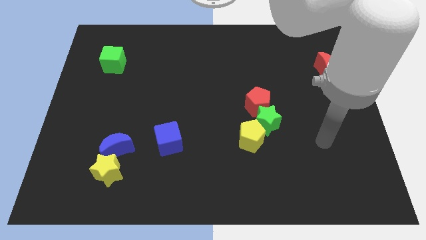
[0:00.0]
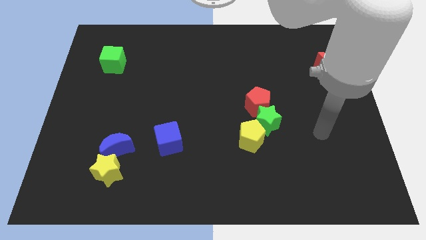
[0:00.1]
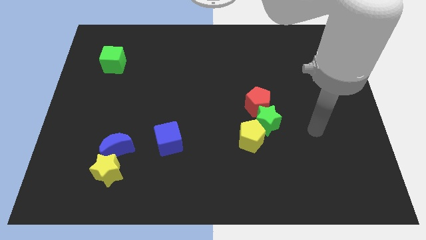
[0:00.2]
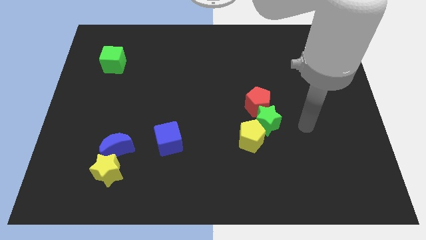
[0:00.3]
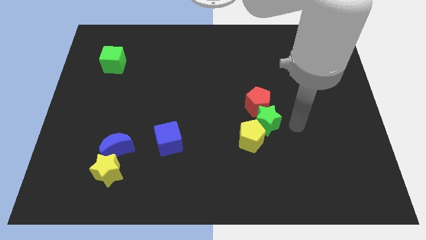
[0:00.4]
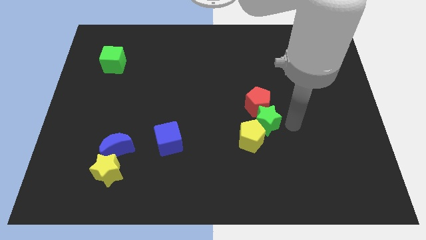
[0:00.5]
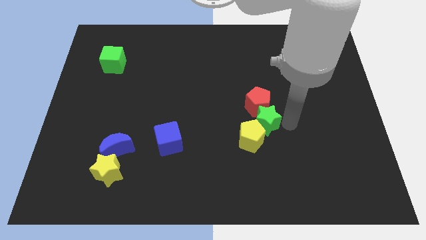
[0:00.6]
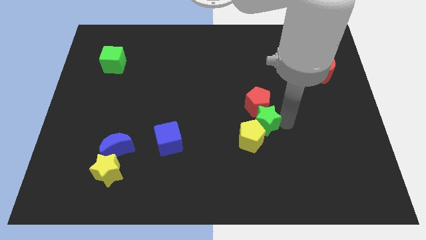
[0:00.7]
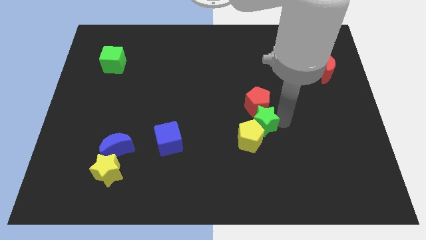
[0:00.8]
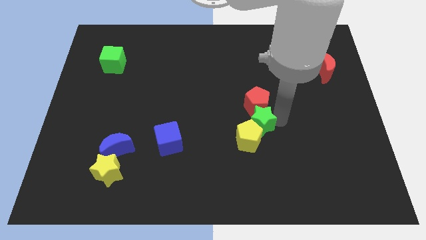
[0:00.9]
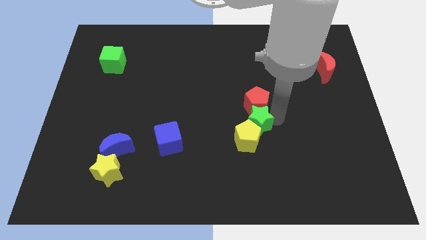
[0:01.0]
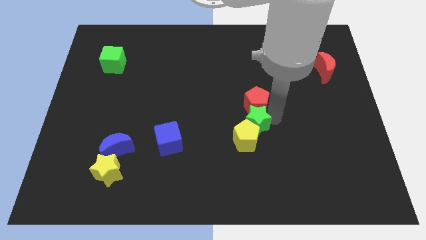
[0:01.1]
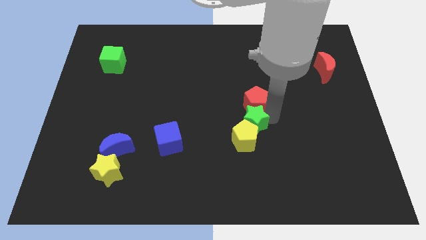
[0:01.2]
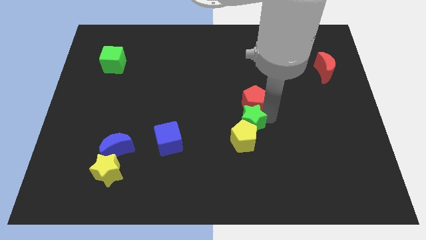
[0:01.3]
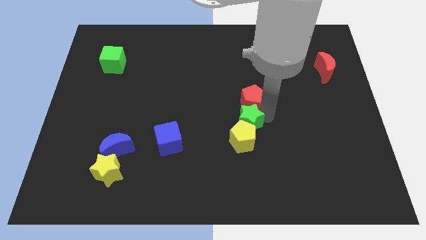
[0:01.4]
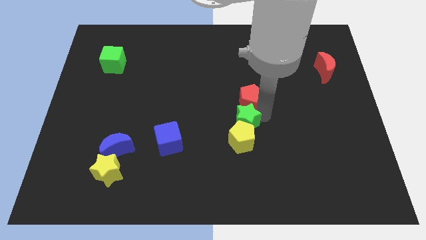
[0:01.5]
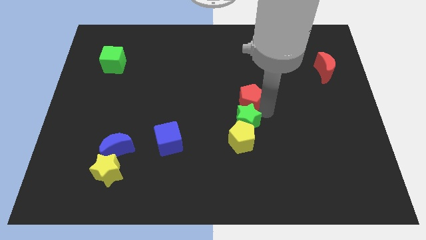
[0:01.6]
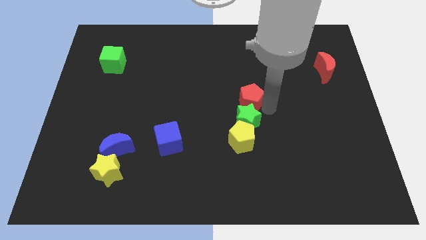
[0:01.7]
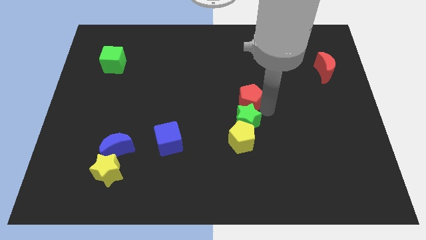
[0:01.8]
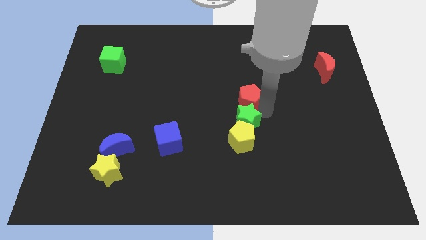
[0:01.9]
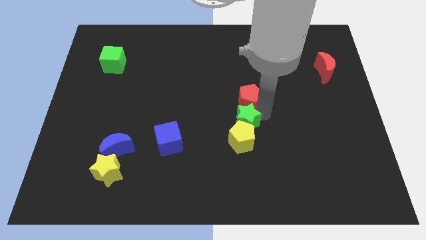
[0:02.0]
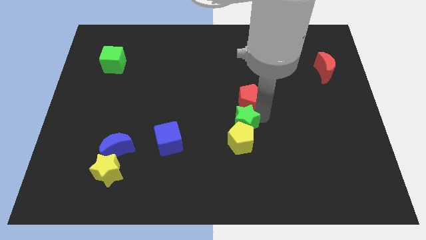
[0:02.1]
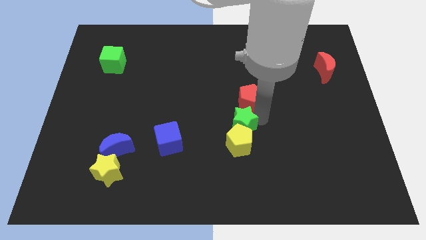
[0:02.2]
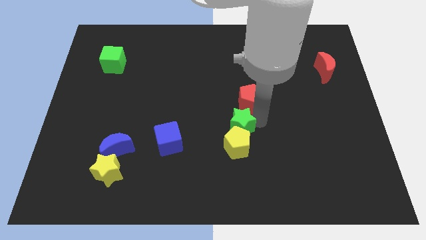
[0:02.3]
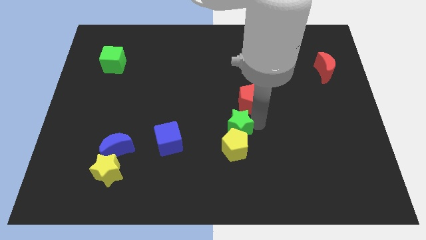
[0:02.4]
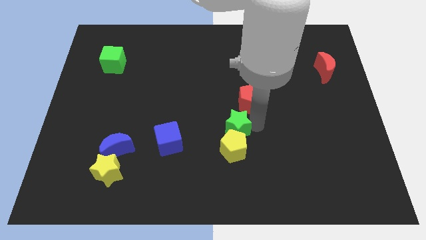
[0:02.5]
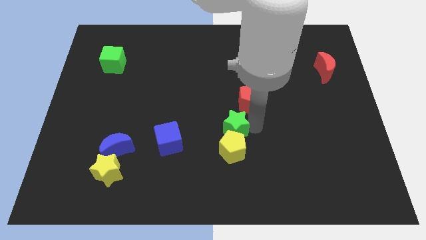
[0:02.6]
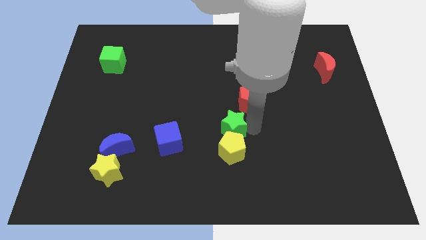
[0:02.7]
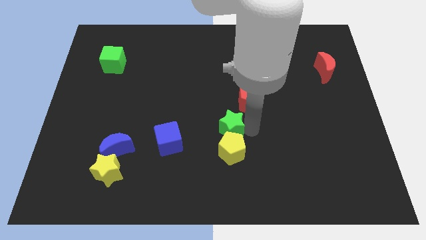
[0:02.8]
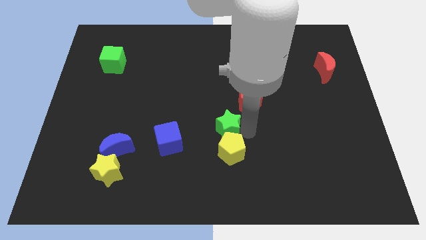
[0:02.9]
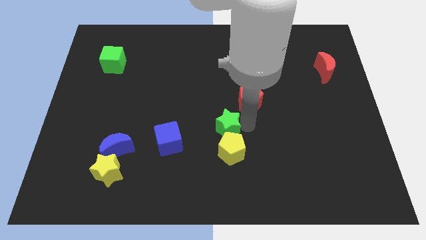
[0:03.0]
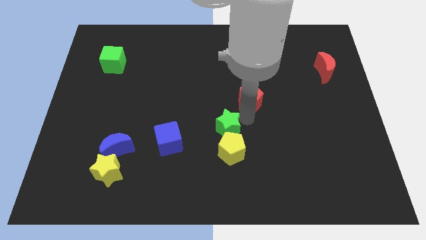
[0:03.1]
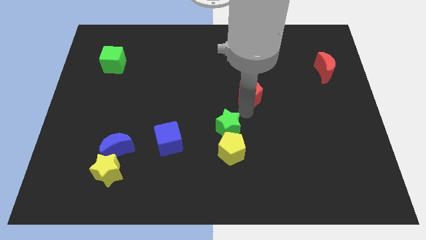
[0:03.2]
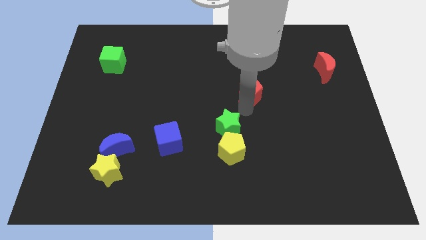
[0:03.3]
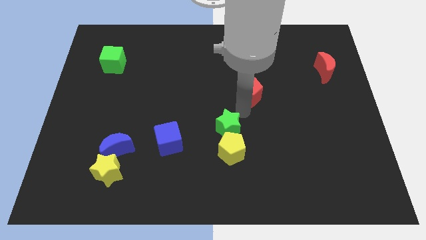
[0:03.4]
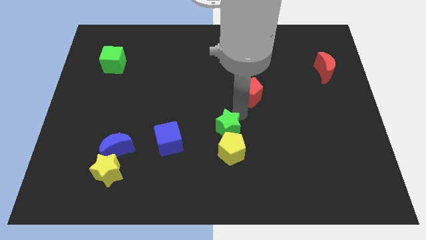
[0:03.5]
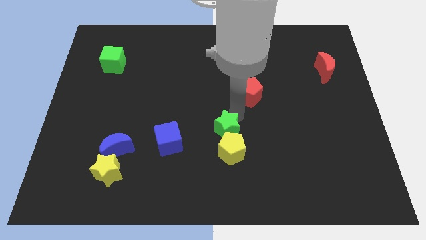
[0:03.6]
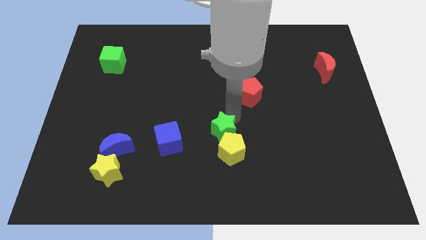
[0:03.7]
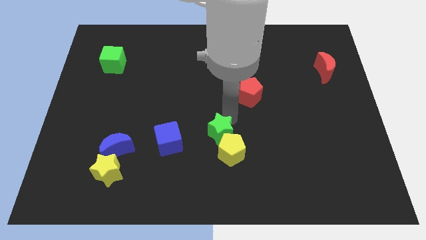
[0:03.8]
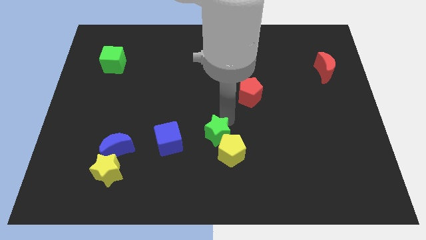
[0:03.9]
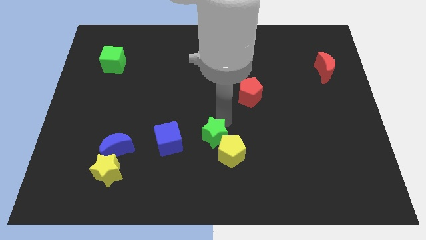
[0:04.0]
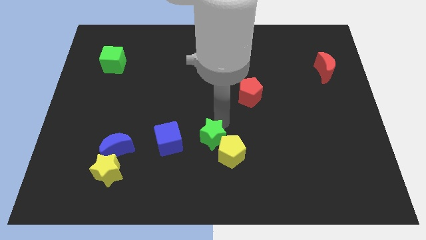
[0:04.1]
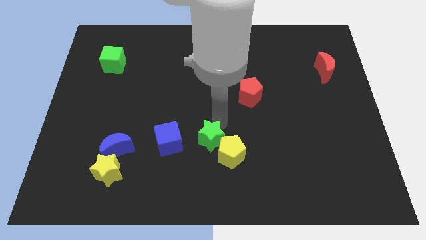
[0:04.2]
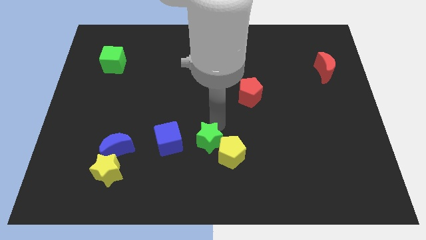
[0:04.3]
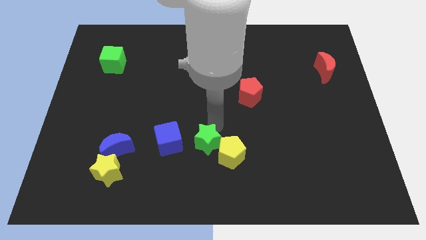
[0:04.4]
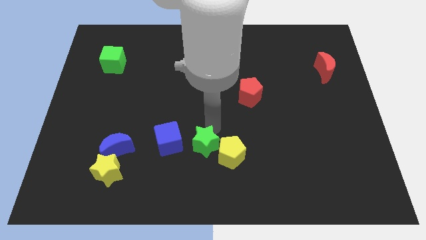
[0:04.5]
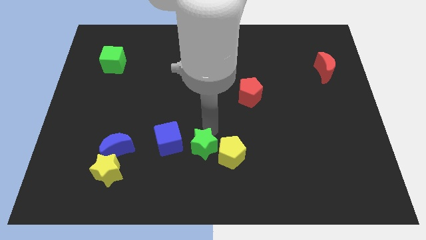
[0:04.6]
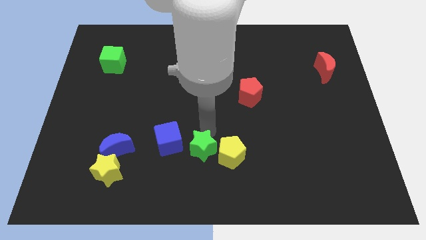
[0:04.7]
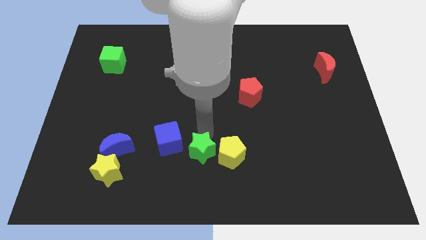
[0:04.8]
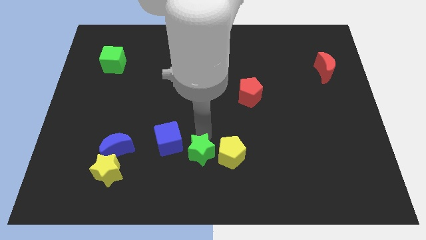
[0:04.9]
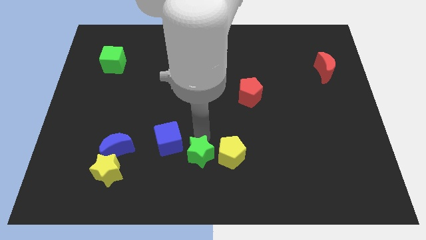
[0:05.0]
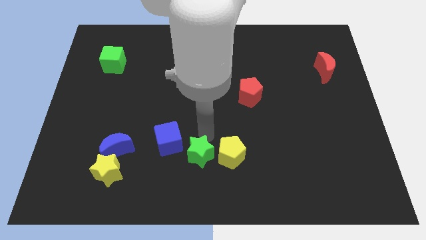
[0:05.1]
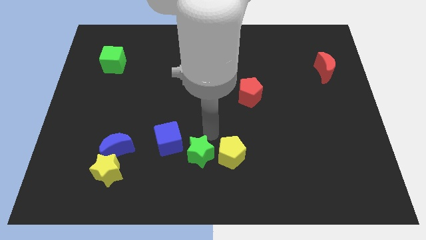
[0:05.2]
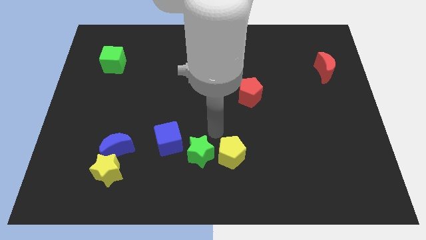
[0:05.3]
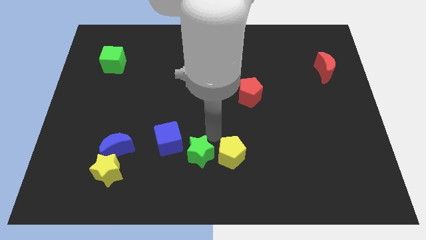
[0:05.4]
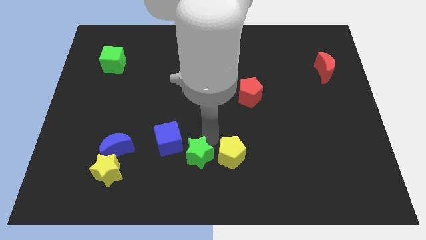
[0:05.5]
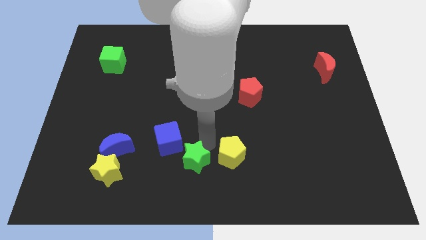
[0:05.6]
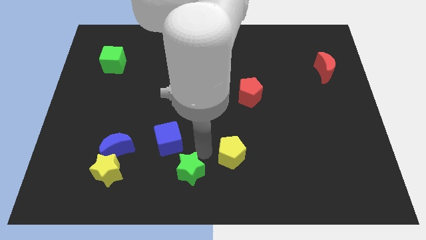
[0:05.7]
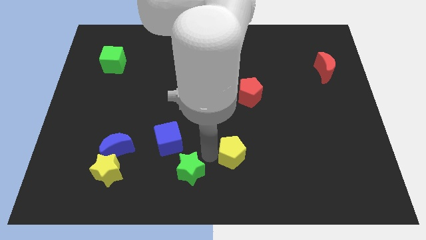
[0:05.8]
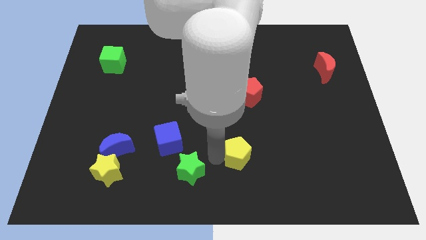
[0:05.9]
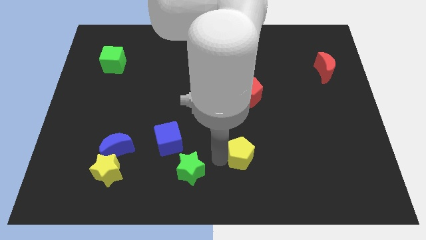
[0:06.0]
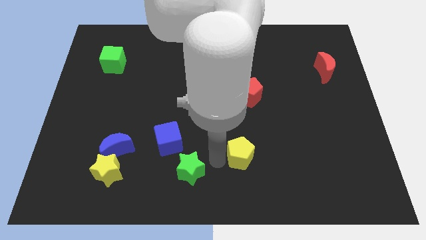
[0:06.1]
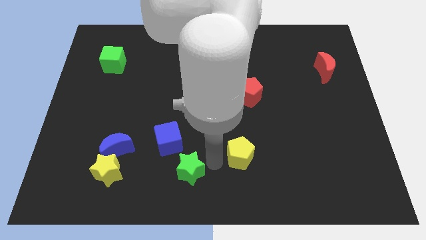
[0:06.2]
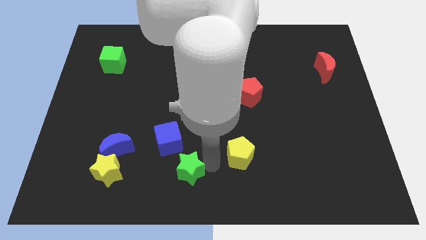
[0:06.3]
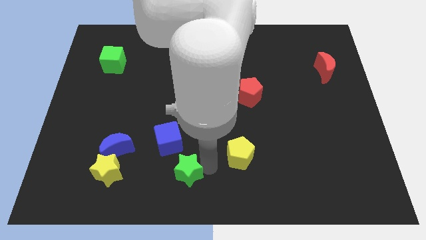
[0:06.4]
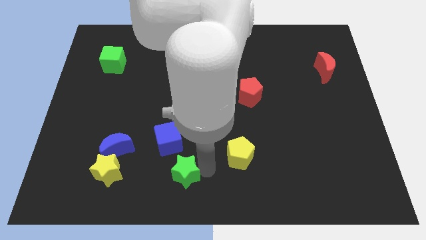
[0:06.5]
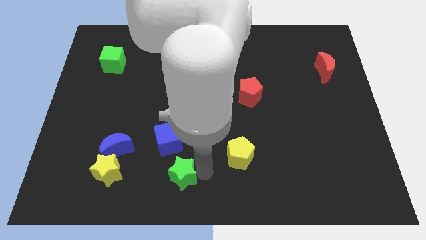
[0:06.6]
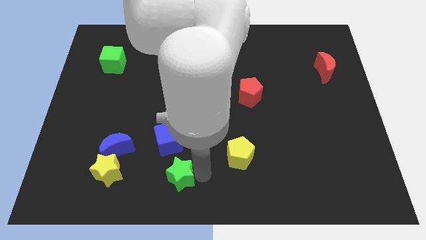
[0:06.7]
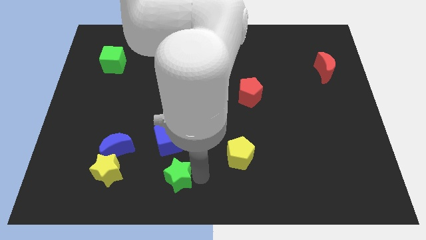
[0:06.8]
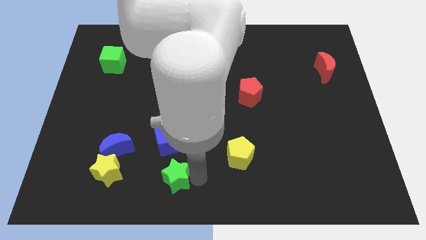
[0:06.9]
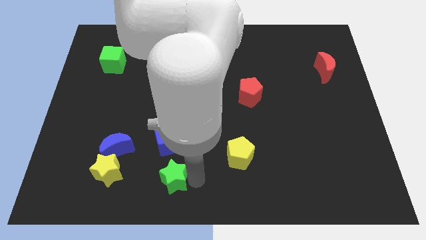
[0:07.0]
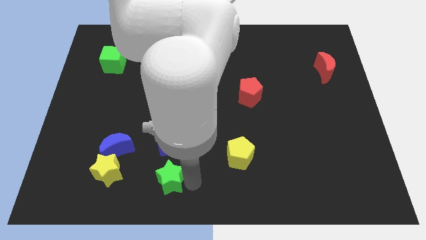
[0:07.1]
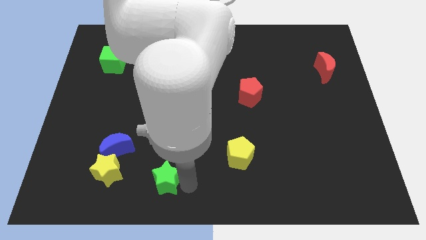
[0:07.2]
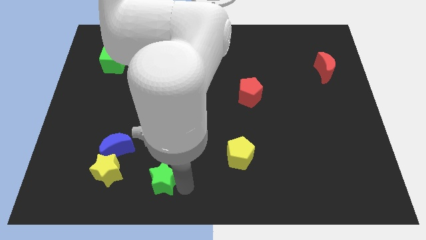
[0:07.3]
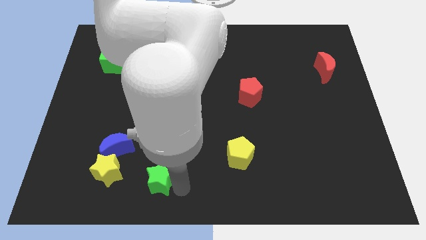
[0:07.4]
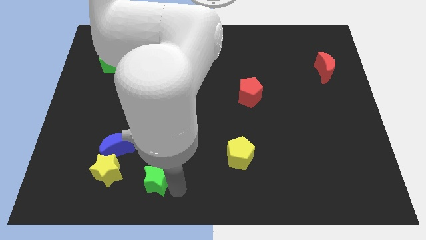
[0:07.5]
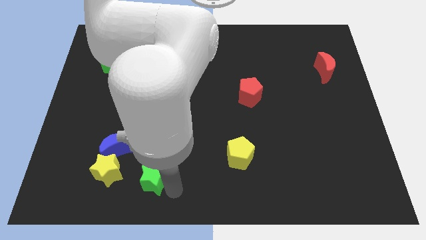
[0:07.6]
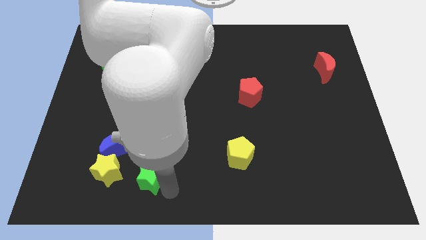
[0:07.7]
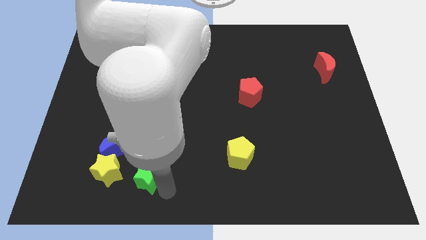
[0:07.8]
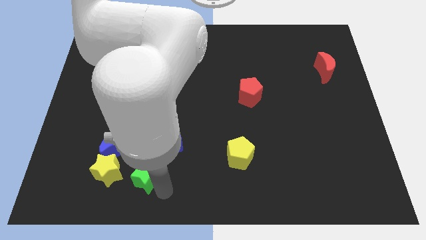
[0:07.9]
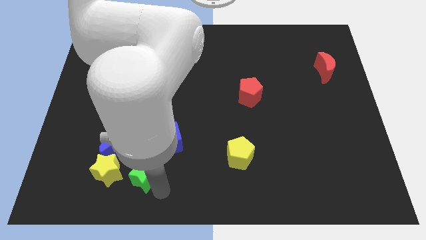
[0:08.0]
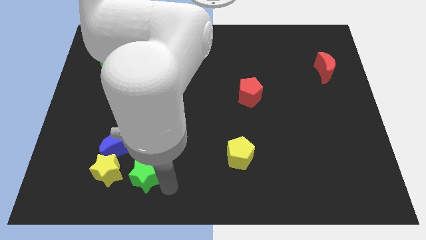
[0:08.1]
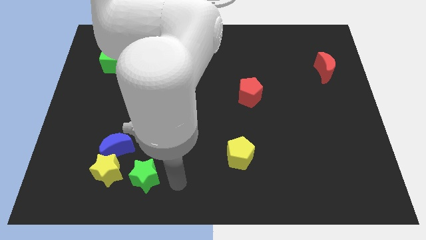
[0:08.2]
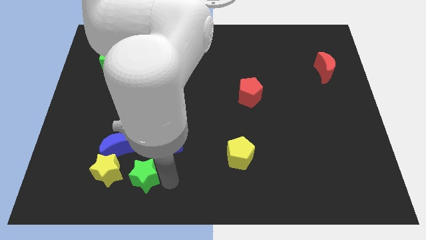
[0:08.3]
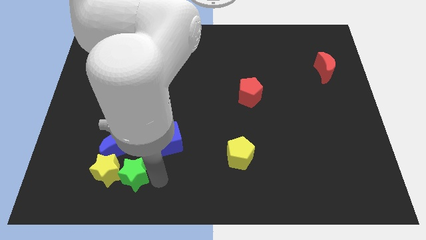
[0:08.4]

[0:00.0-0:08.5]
push the green star next to the yellow star
